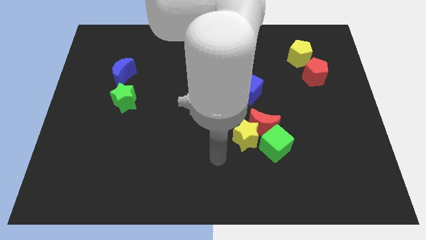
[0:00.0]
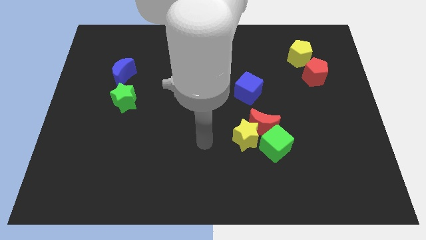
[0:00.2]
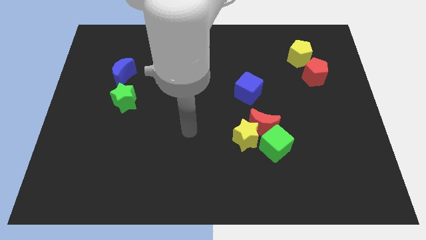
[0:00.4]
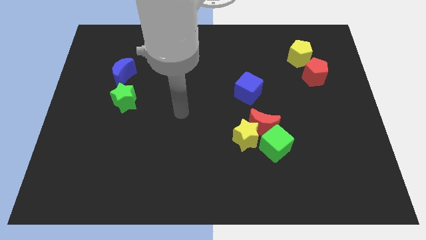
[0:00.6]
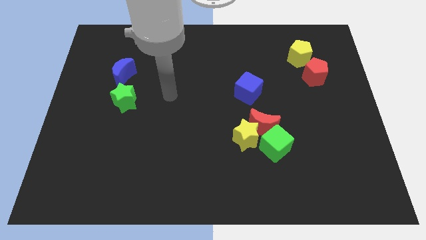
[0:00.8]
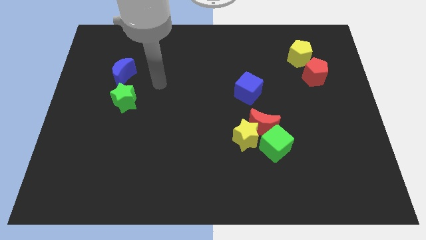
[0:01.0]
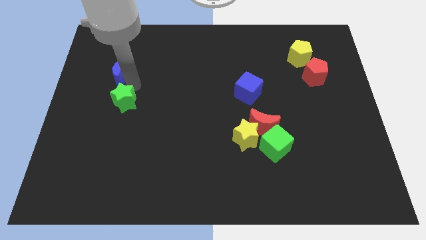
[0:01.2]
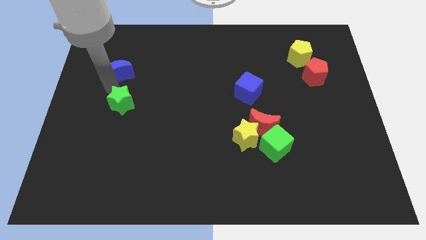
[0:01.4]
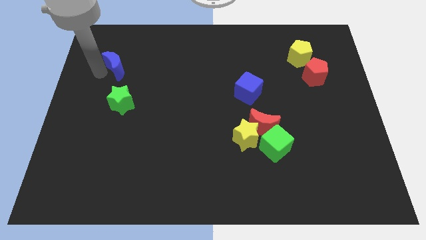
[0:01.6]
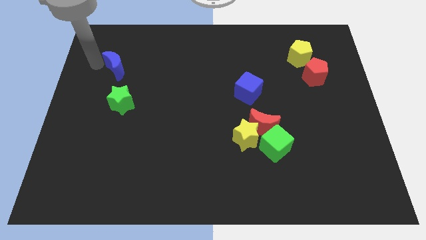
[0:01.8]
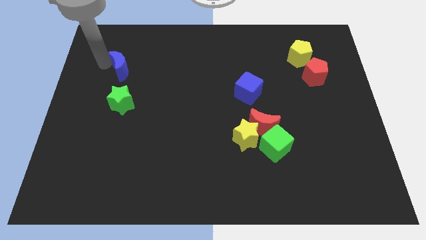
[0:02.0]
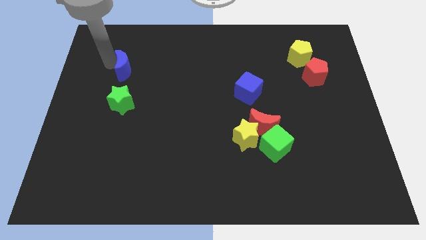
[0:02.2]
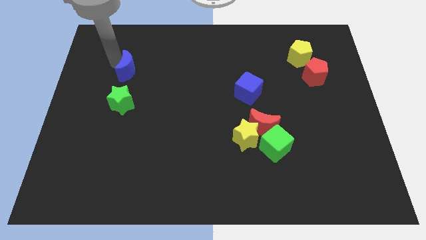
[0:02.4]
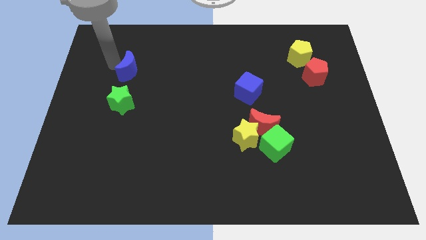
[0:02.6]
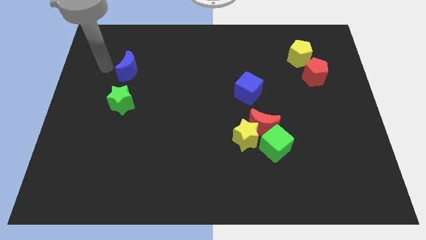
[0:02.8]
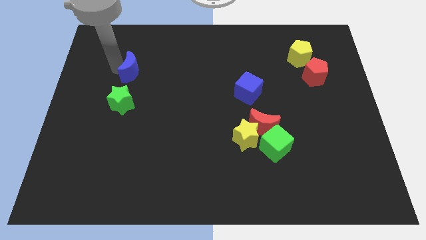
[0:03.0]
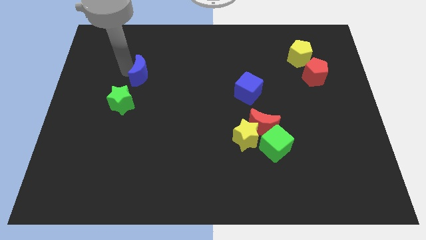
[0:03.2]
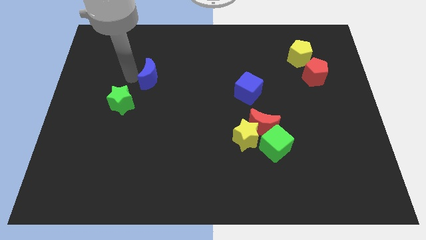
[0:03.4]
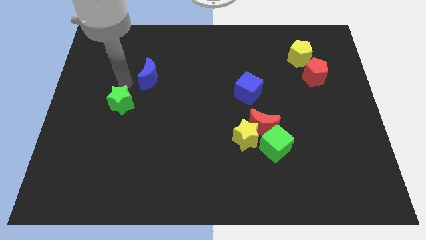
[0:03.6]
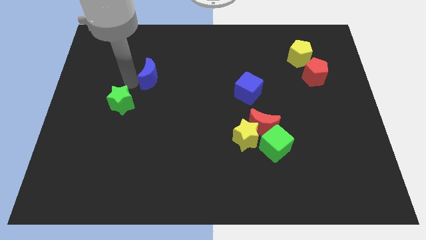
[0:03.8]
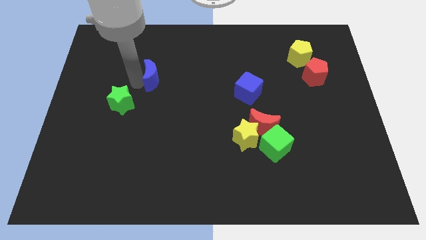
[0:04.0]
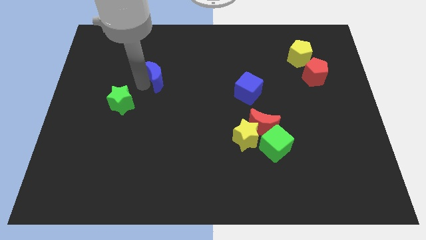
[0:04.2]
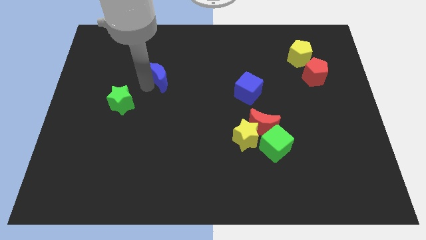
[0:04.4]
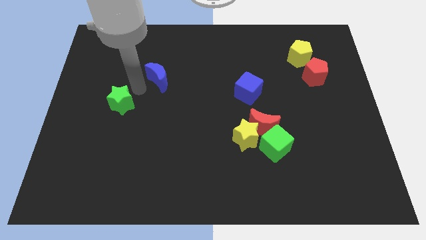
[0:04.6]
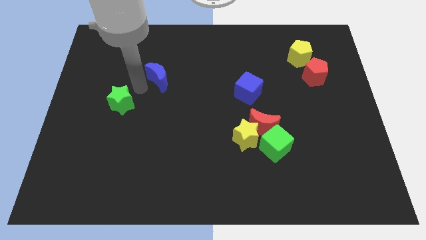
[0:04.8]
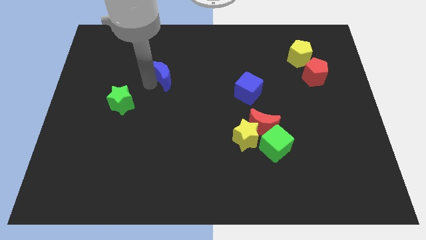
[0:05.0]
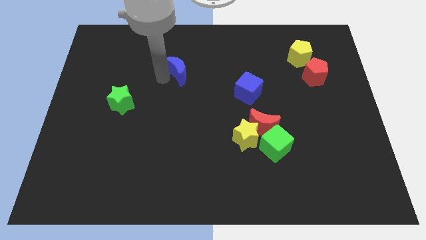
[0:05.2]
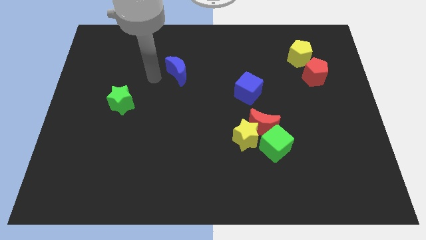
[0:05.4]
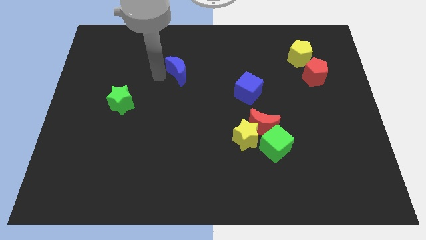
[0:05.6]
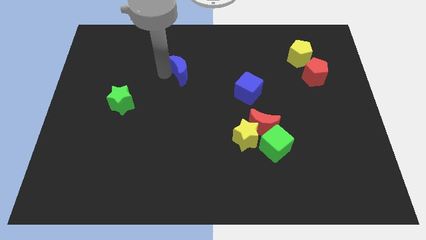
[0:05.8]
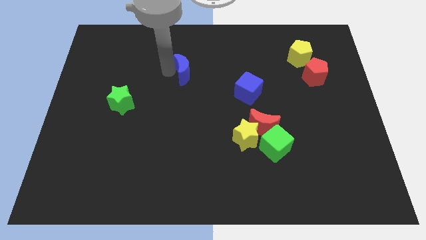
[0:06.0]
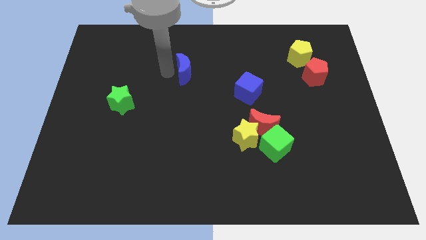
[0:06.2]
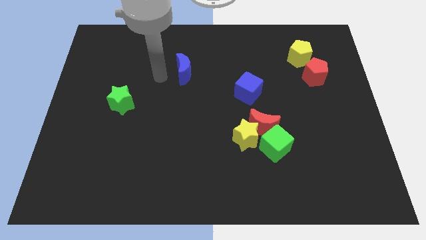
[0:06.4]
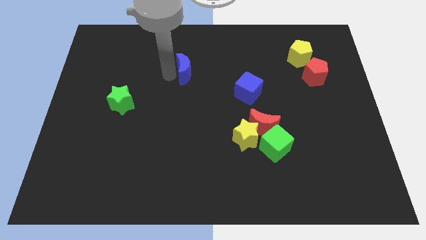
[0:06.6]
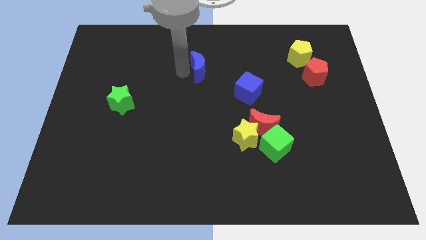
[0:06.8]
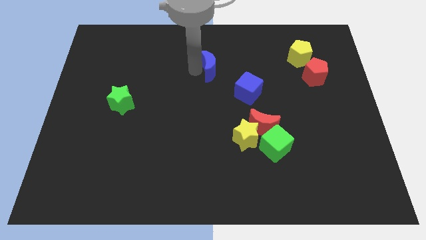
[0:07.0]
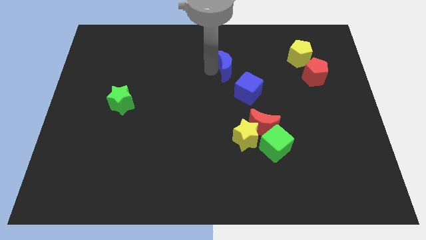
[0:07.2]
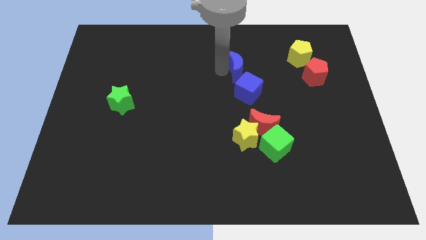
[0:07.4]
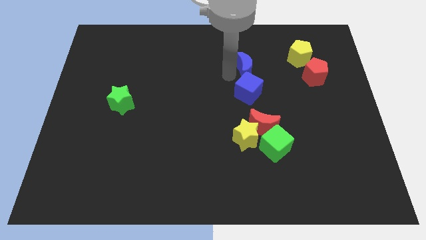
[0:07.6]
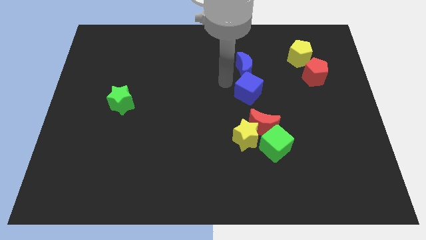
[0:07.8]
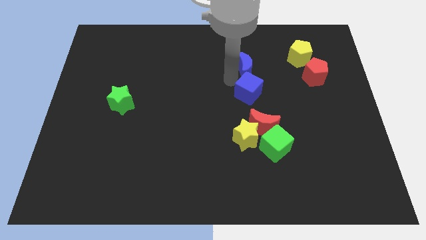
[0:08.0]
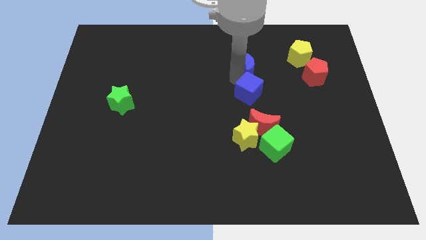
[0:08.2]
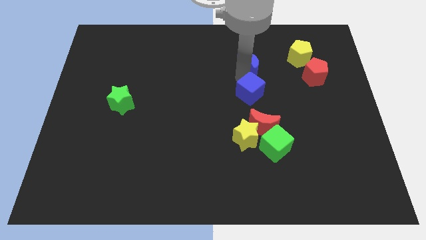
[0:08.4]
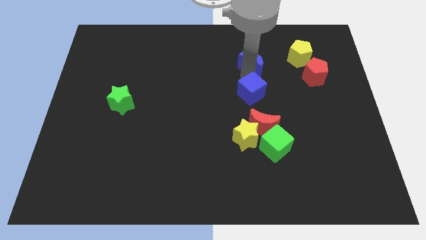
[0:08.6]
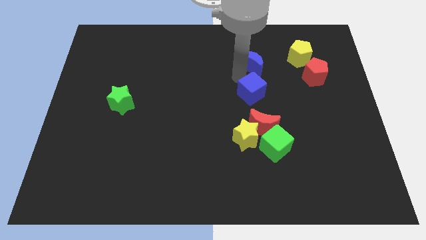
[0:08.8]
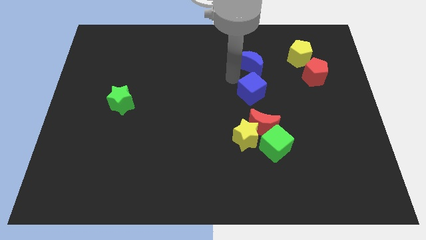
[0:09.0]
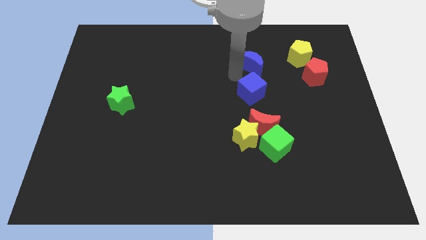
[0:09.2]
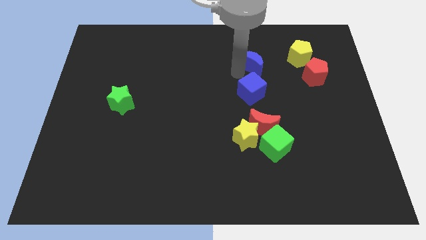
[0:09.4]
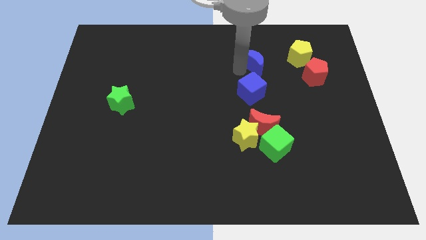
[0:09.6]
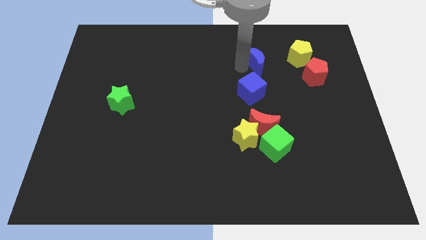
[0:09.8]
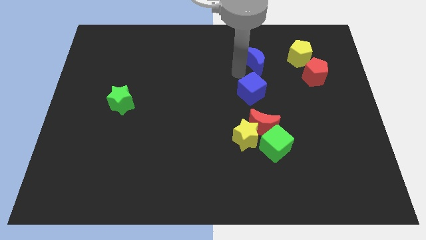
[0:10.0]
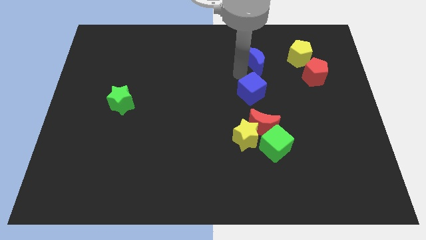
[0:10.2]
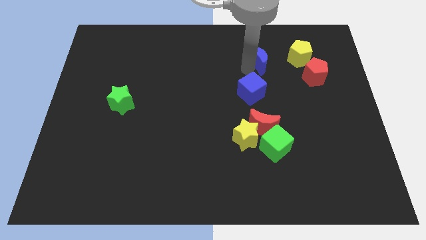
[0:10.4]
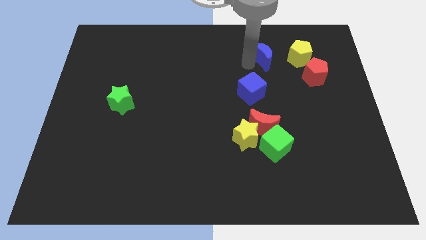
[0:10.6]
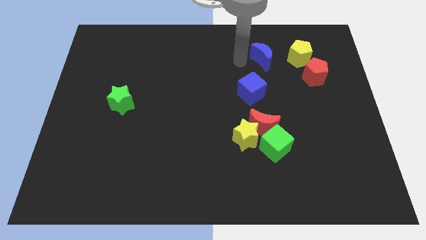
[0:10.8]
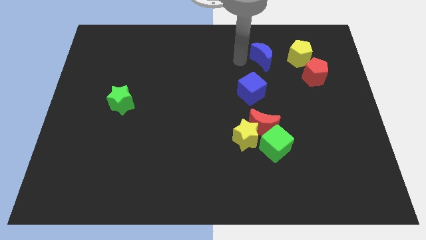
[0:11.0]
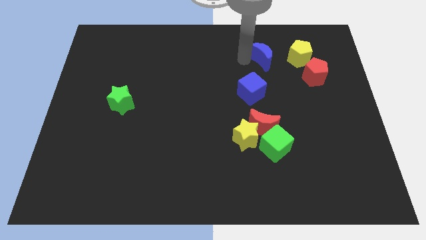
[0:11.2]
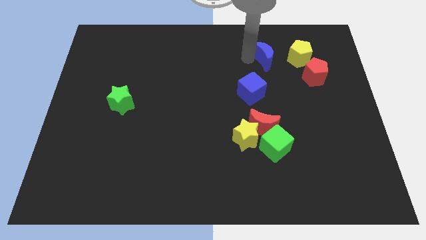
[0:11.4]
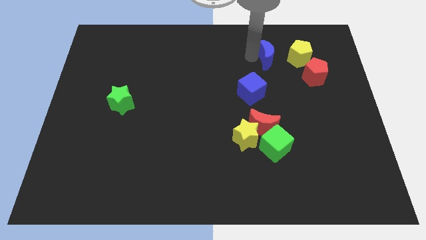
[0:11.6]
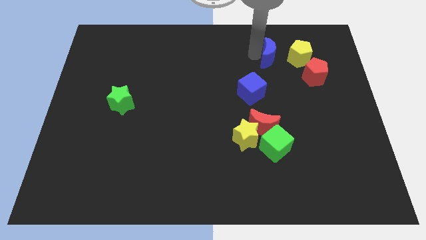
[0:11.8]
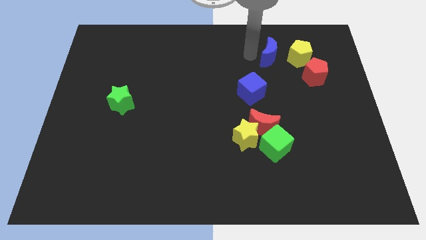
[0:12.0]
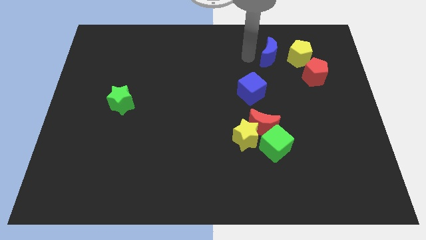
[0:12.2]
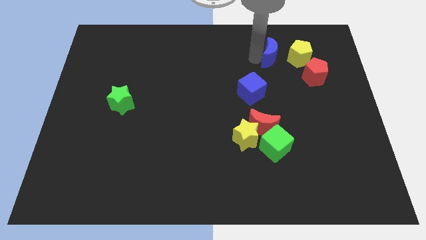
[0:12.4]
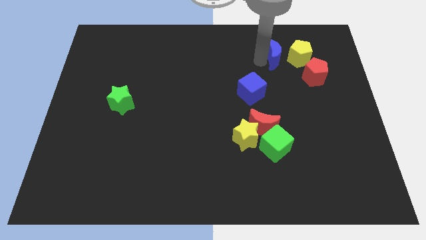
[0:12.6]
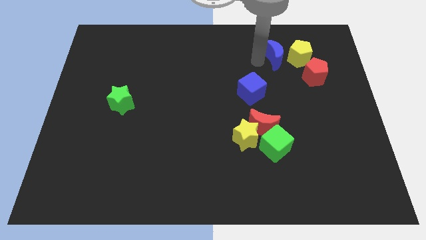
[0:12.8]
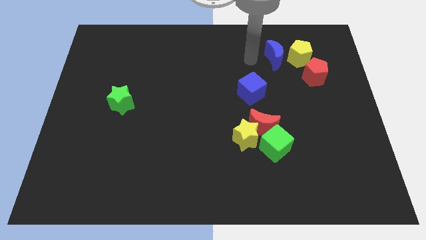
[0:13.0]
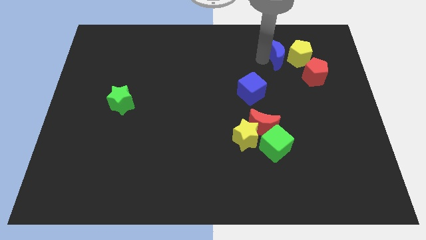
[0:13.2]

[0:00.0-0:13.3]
push the blue moon close to the yellow pentagon
